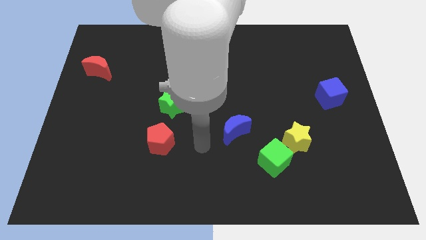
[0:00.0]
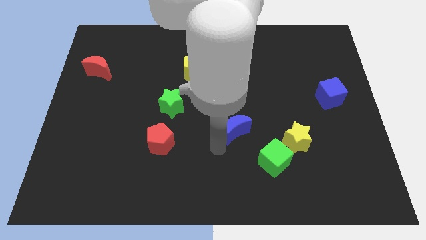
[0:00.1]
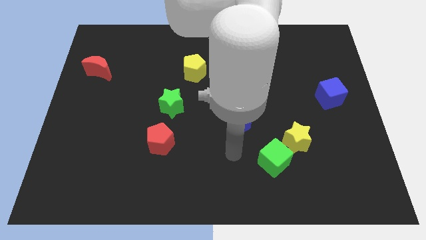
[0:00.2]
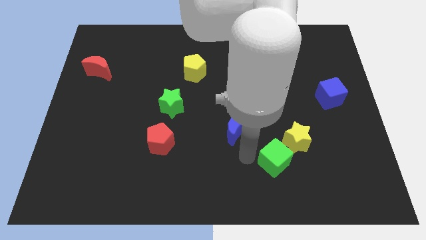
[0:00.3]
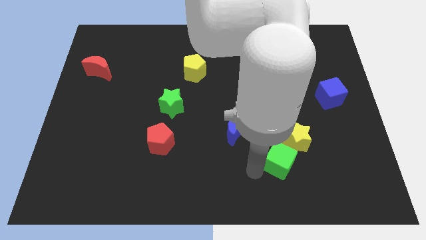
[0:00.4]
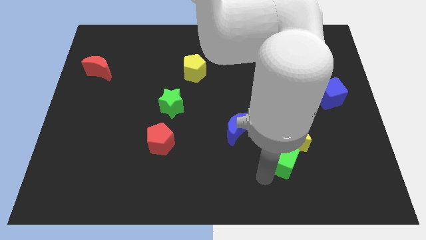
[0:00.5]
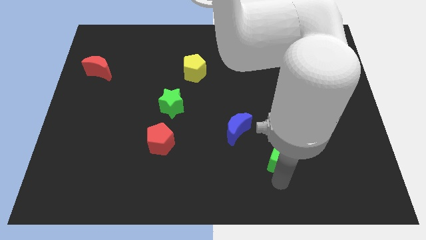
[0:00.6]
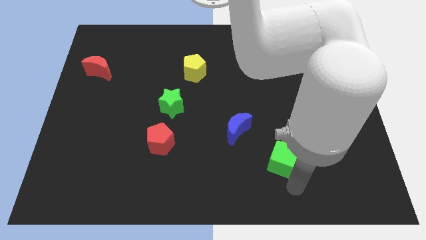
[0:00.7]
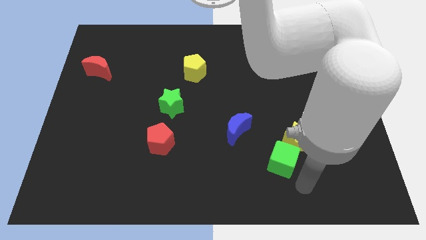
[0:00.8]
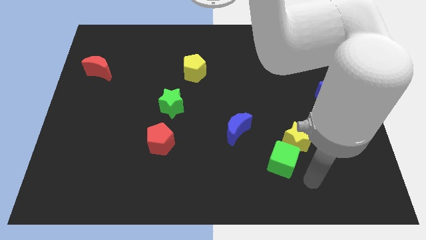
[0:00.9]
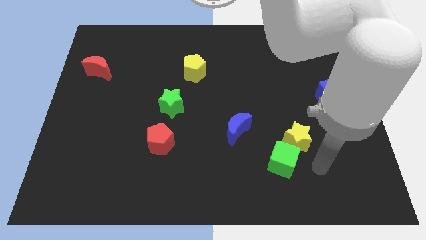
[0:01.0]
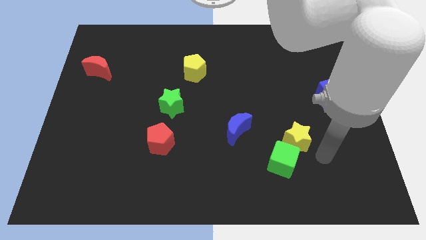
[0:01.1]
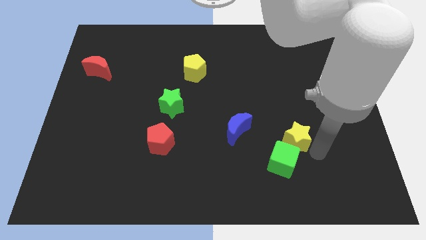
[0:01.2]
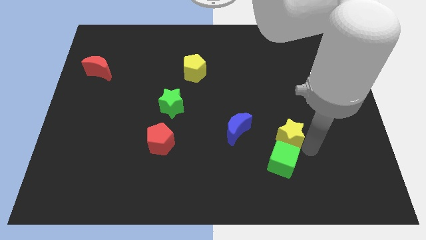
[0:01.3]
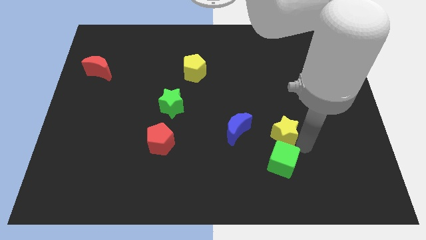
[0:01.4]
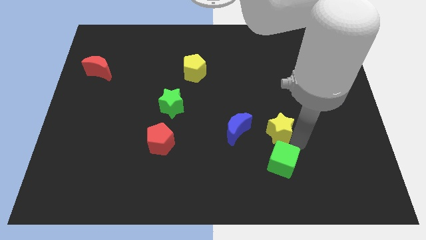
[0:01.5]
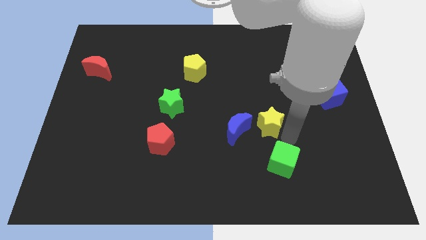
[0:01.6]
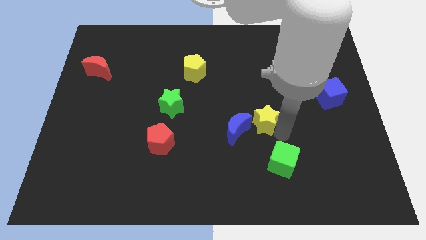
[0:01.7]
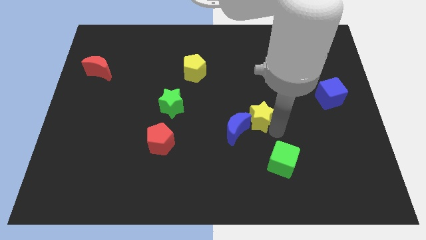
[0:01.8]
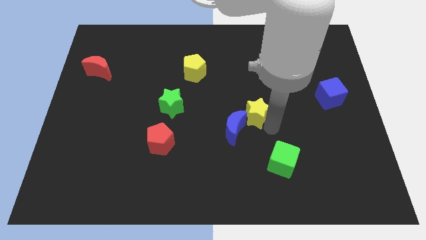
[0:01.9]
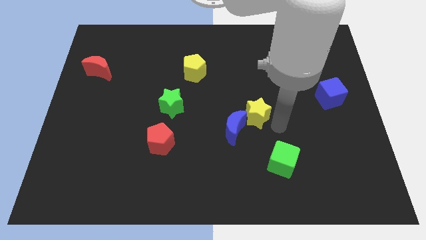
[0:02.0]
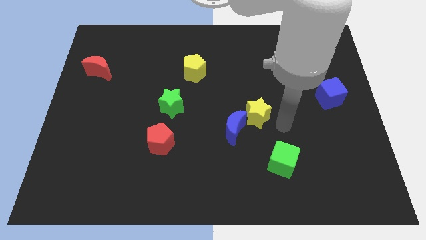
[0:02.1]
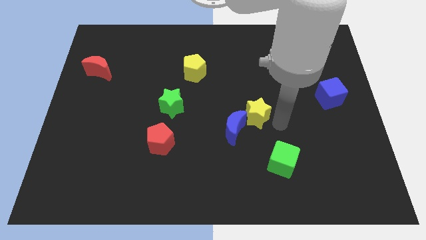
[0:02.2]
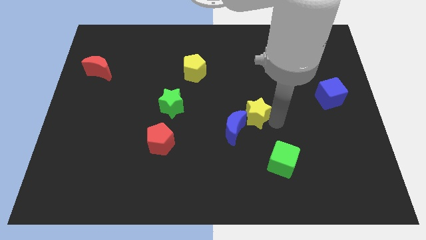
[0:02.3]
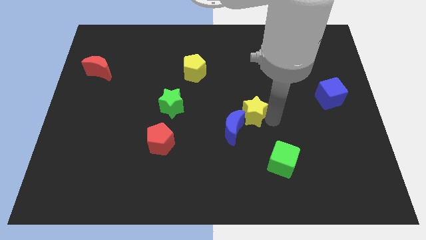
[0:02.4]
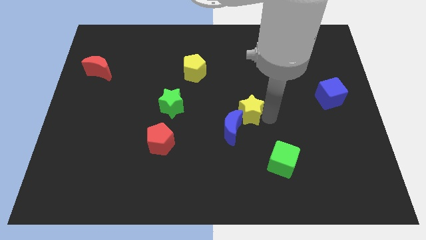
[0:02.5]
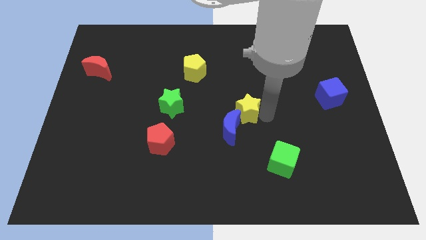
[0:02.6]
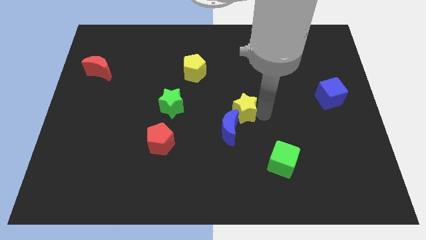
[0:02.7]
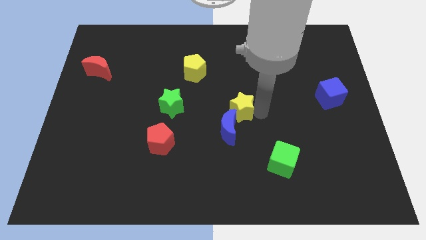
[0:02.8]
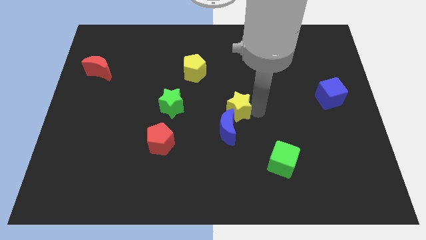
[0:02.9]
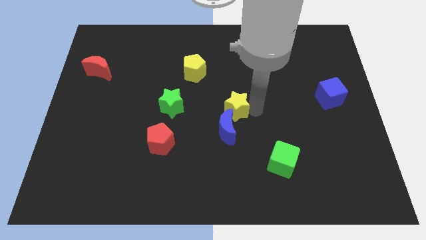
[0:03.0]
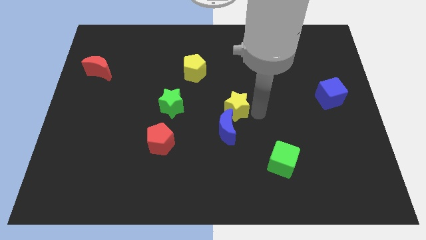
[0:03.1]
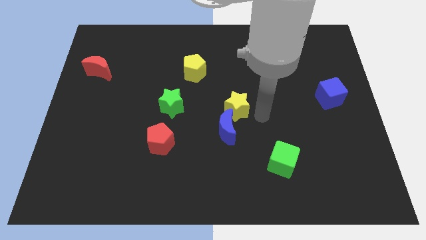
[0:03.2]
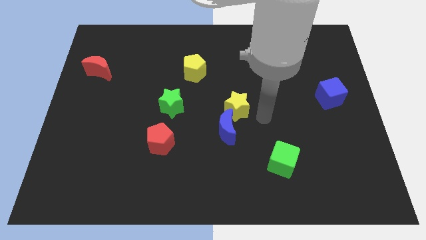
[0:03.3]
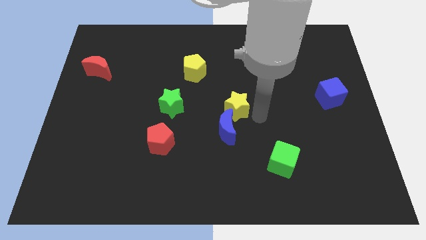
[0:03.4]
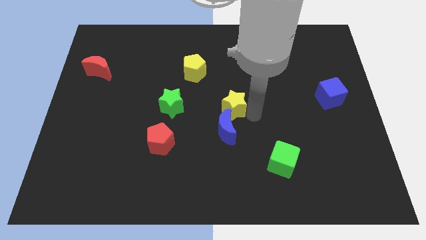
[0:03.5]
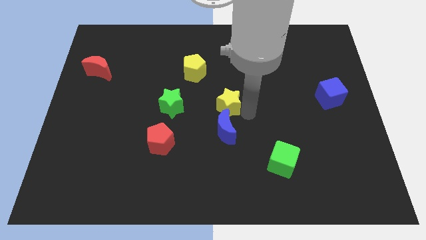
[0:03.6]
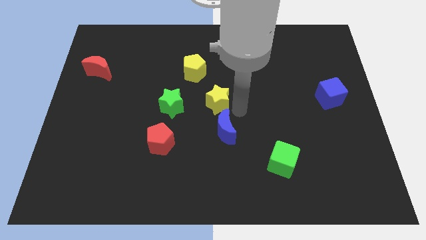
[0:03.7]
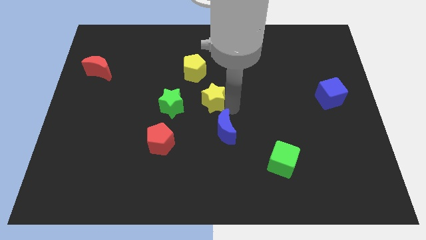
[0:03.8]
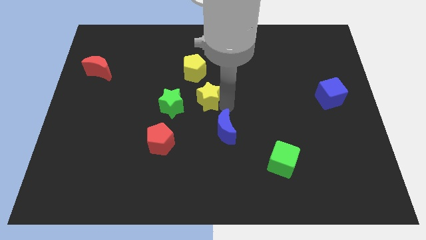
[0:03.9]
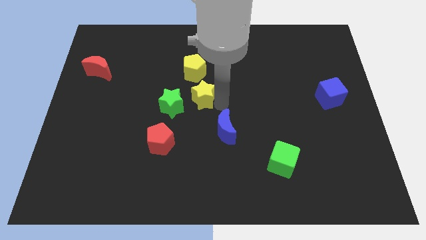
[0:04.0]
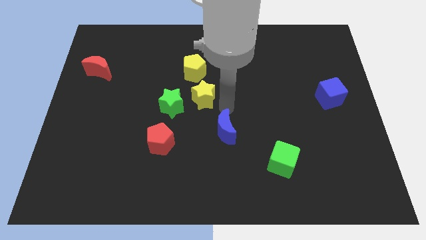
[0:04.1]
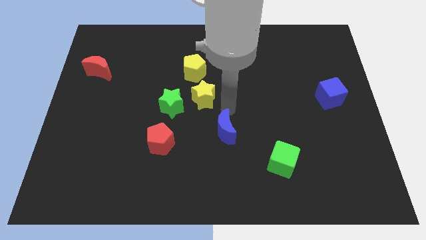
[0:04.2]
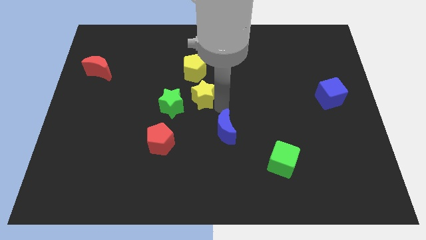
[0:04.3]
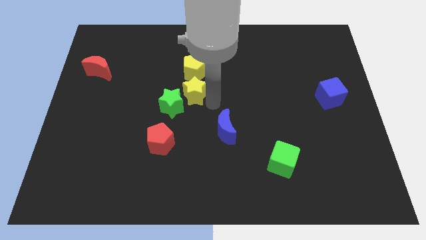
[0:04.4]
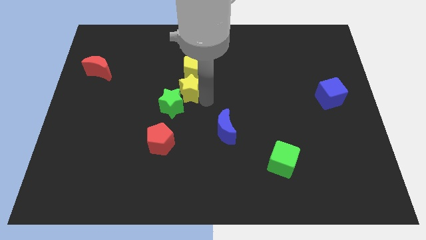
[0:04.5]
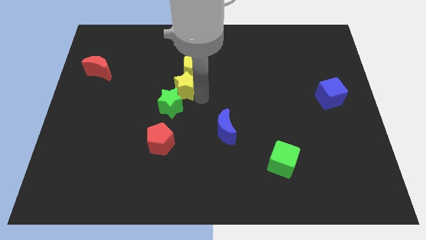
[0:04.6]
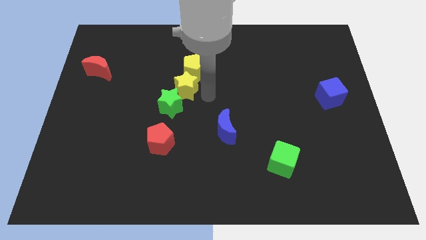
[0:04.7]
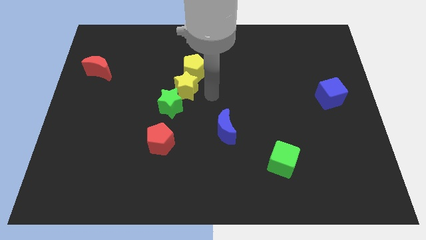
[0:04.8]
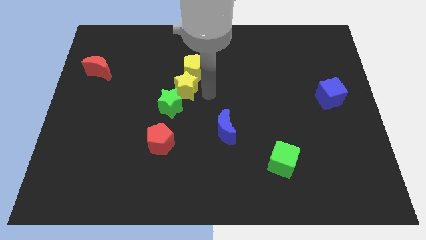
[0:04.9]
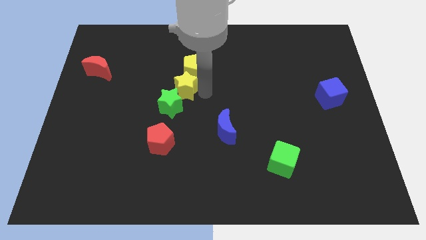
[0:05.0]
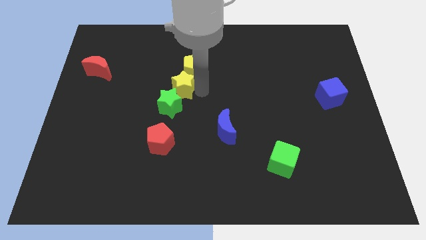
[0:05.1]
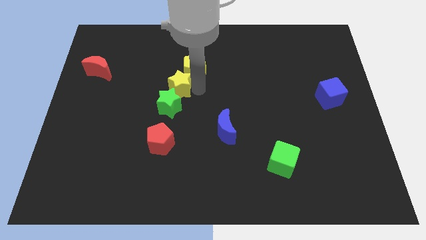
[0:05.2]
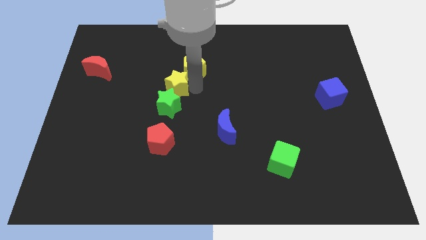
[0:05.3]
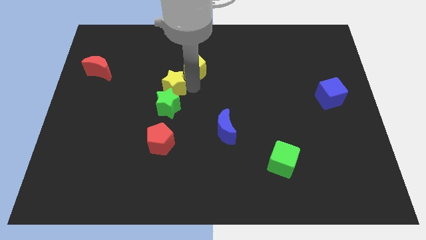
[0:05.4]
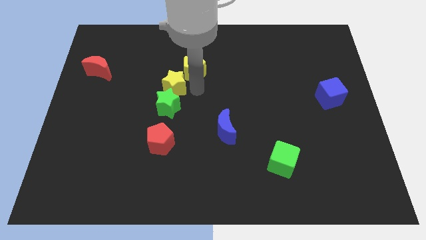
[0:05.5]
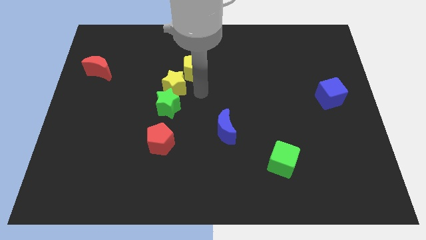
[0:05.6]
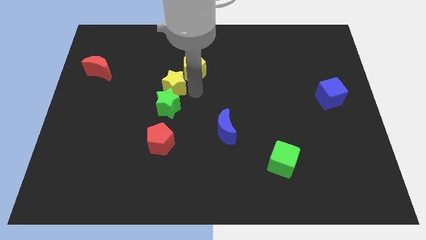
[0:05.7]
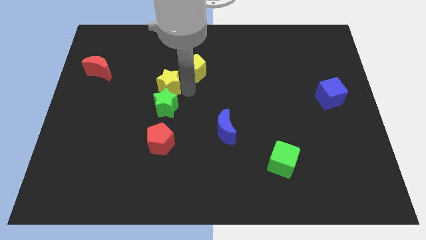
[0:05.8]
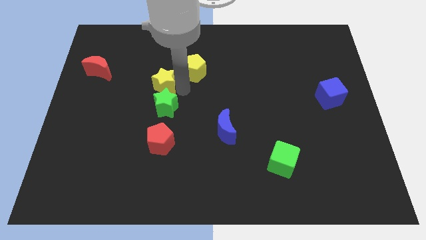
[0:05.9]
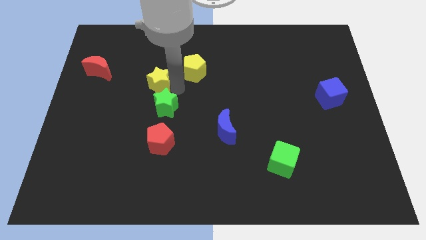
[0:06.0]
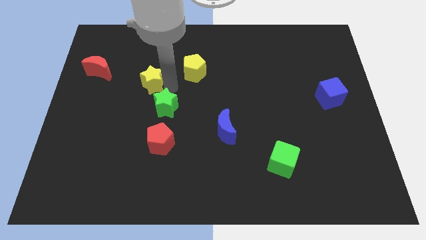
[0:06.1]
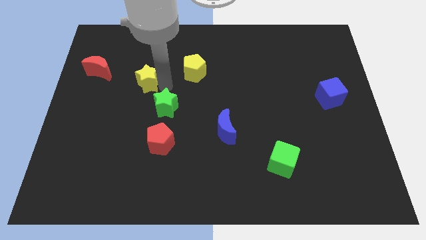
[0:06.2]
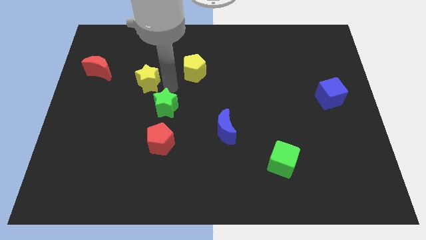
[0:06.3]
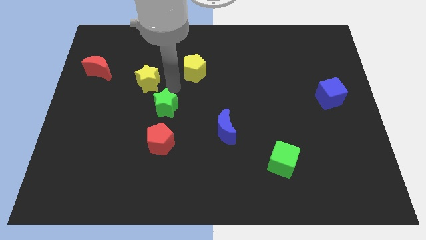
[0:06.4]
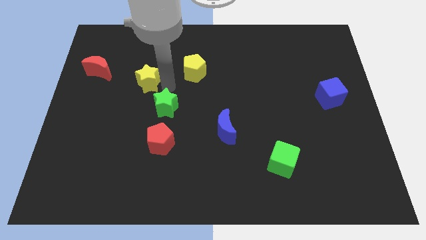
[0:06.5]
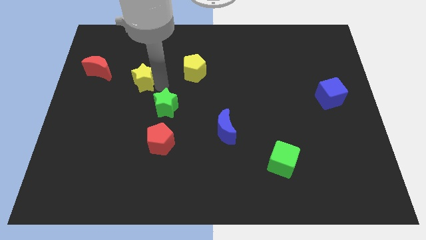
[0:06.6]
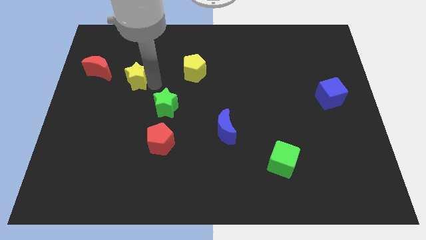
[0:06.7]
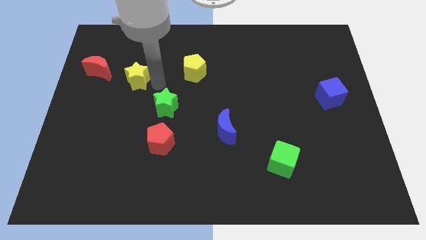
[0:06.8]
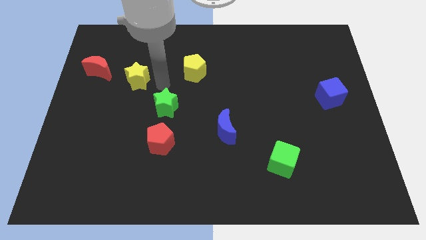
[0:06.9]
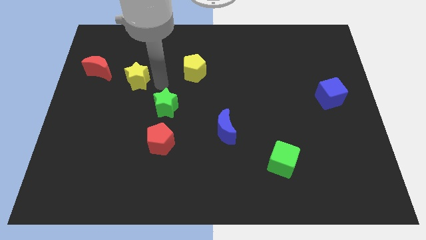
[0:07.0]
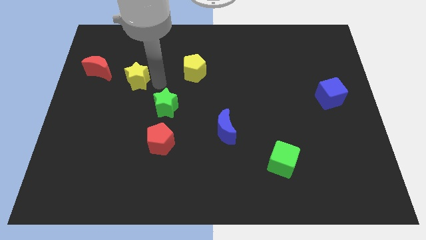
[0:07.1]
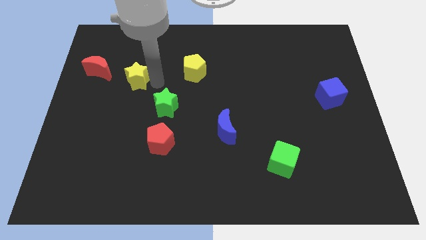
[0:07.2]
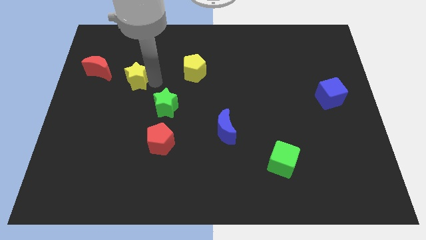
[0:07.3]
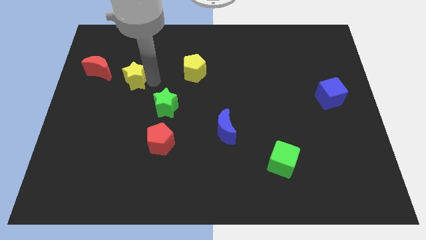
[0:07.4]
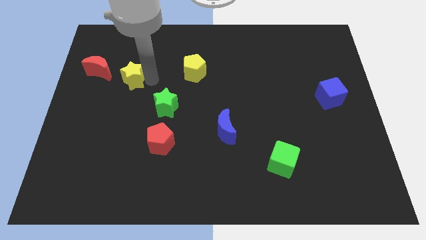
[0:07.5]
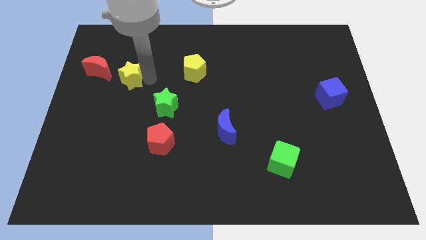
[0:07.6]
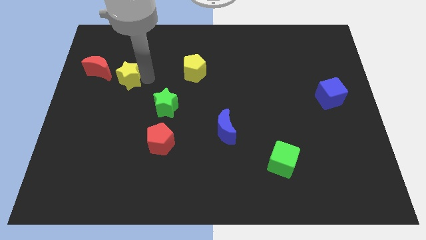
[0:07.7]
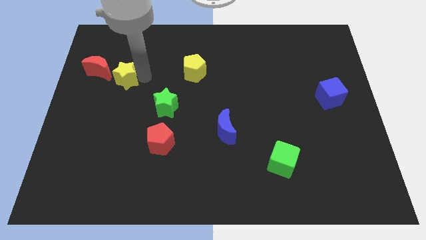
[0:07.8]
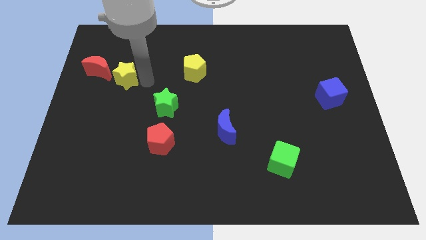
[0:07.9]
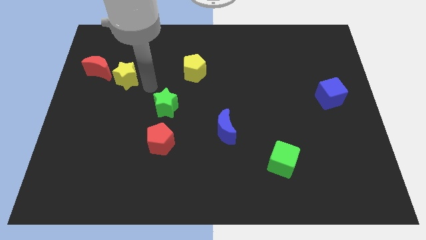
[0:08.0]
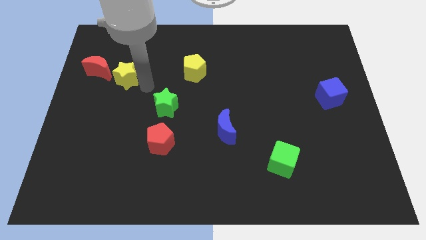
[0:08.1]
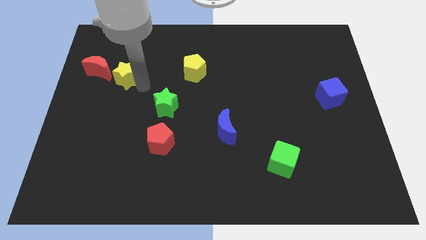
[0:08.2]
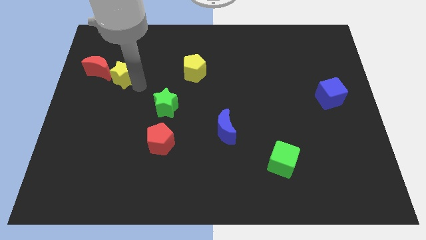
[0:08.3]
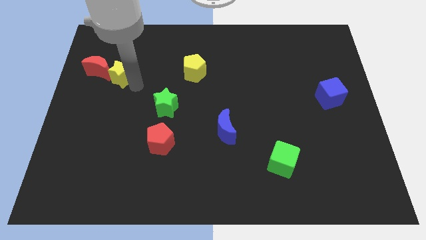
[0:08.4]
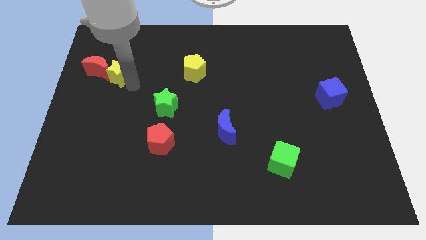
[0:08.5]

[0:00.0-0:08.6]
put the yellow star to the red moon
